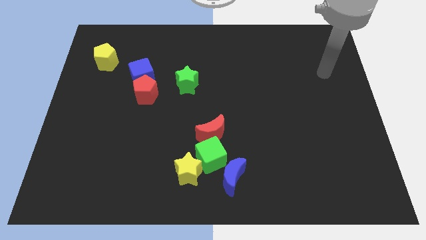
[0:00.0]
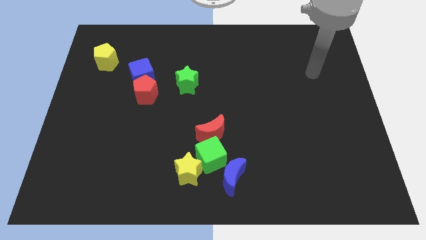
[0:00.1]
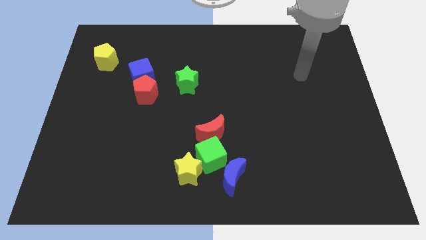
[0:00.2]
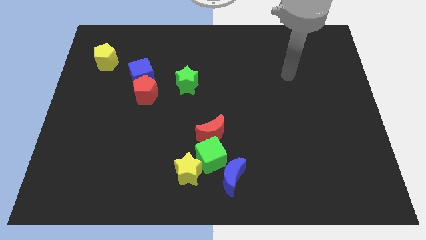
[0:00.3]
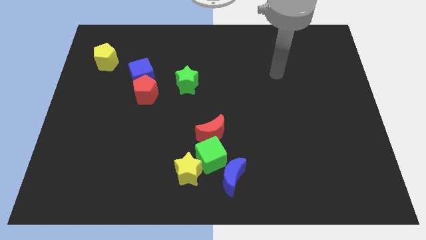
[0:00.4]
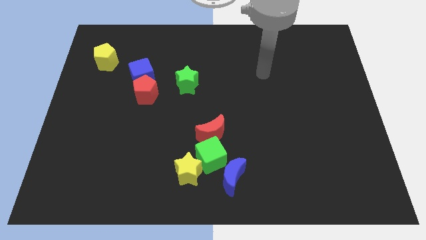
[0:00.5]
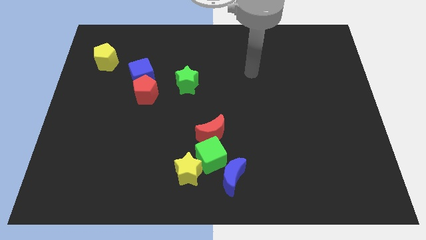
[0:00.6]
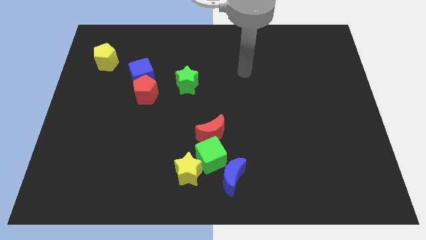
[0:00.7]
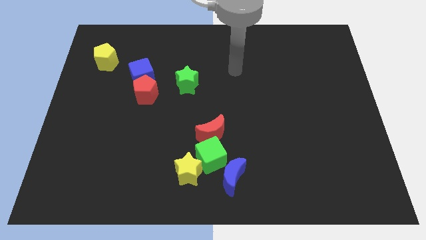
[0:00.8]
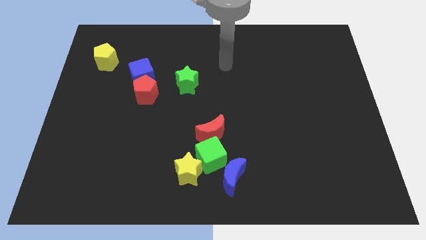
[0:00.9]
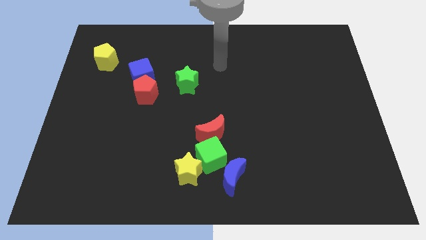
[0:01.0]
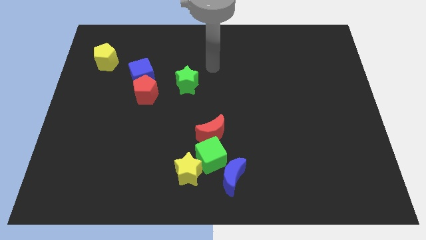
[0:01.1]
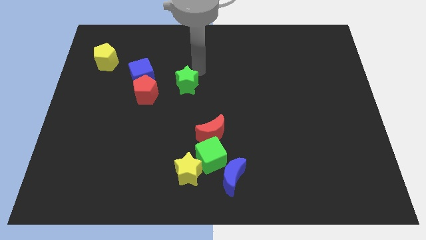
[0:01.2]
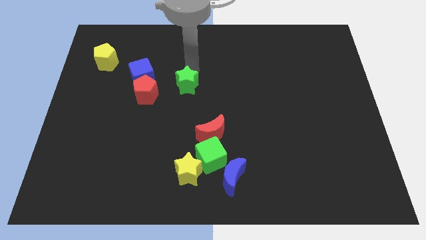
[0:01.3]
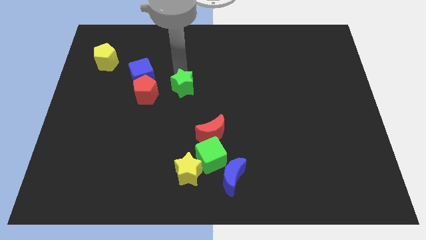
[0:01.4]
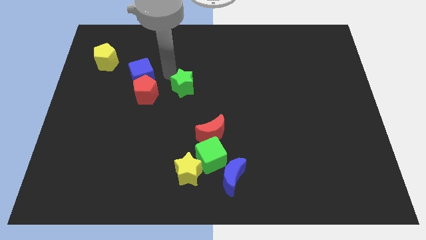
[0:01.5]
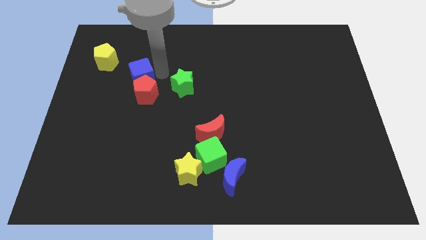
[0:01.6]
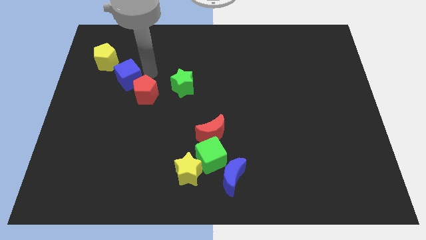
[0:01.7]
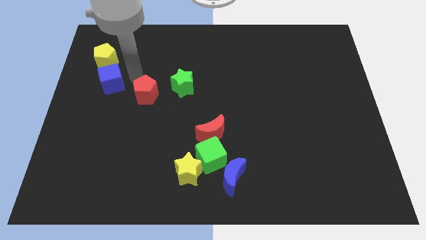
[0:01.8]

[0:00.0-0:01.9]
separate the red pentagon from the blue cube

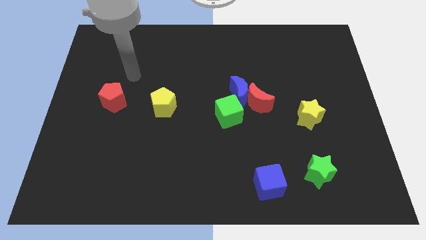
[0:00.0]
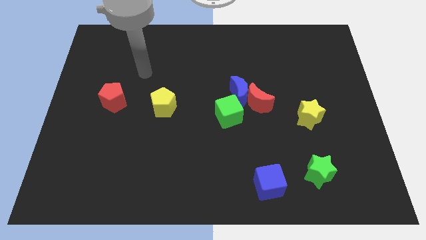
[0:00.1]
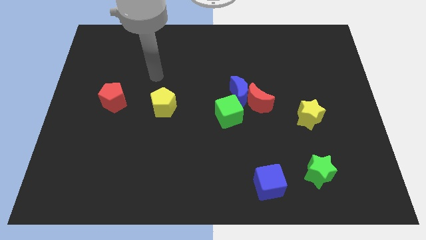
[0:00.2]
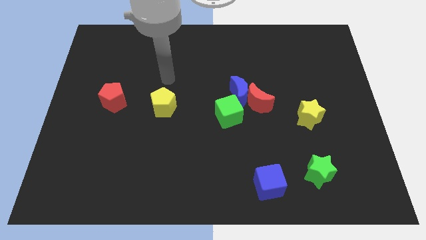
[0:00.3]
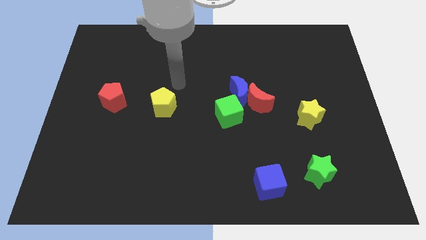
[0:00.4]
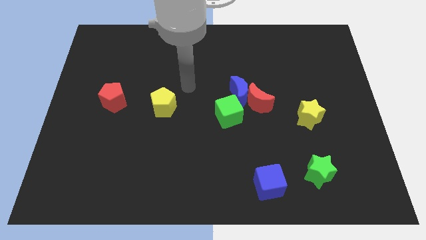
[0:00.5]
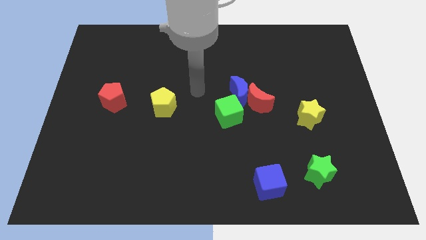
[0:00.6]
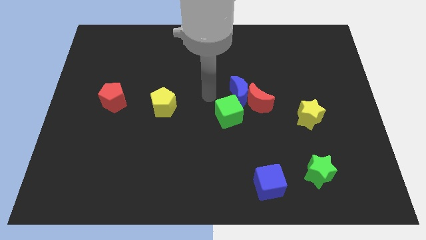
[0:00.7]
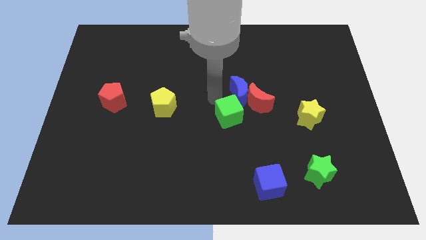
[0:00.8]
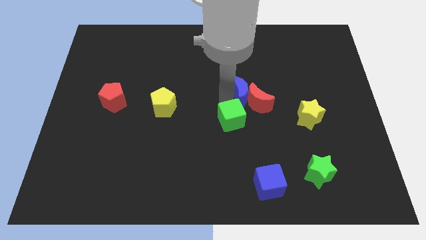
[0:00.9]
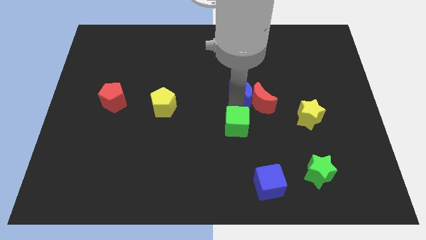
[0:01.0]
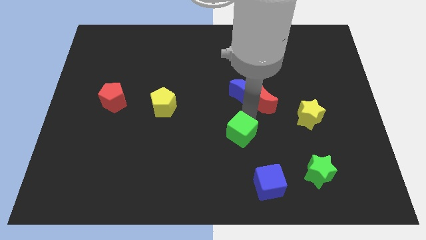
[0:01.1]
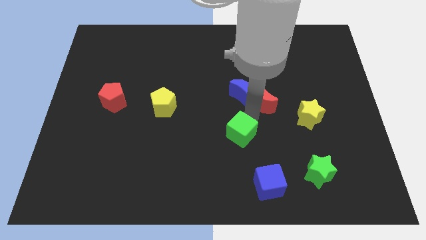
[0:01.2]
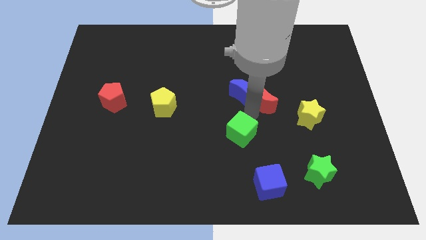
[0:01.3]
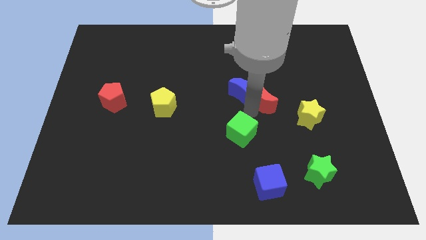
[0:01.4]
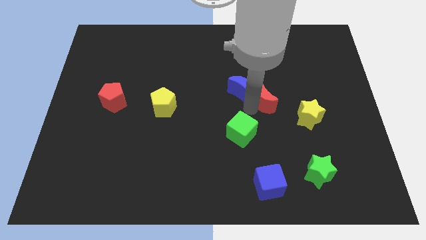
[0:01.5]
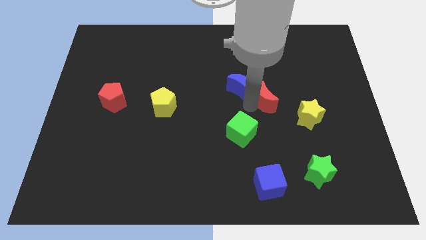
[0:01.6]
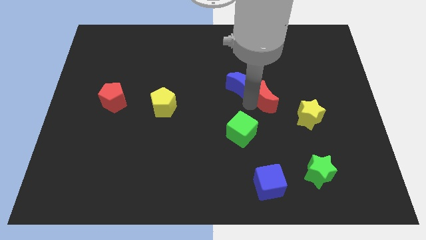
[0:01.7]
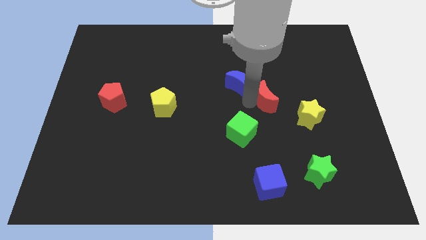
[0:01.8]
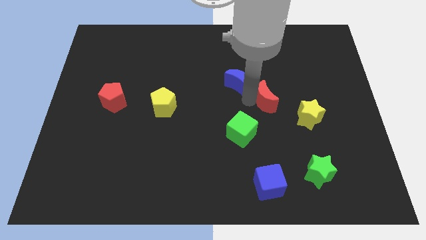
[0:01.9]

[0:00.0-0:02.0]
separate the blue moon from the red moon and green cube

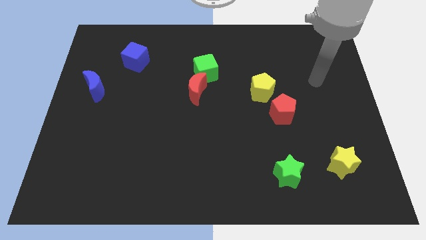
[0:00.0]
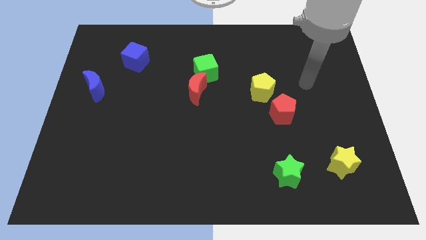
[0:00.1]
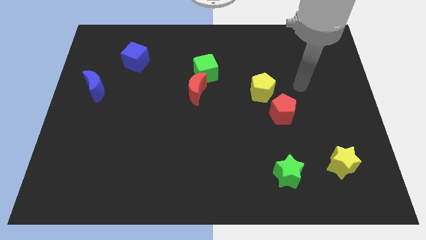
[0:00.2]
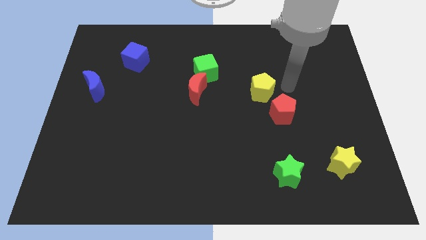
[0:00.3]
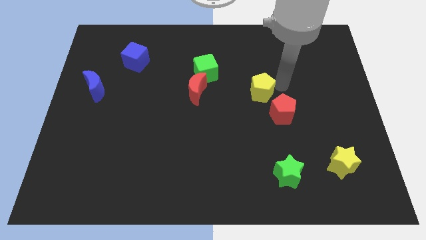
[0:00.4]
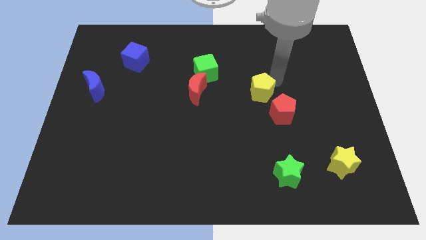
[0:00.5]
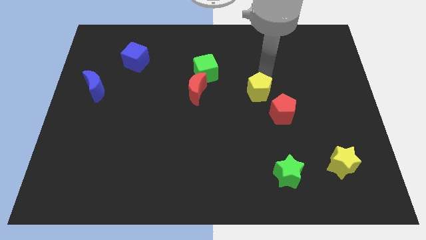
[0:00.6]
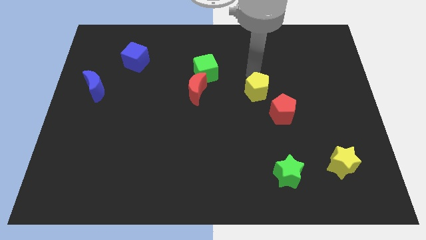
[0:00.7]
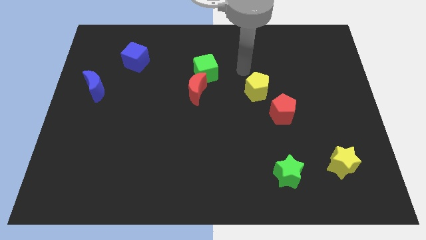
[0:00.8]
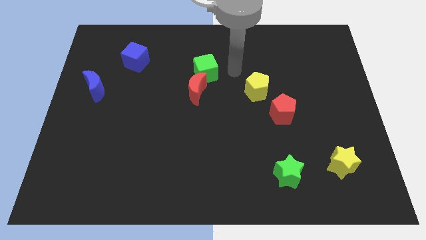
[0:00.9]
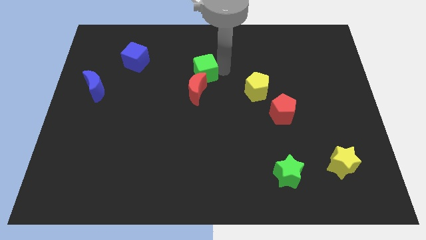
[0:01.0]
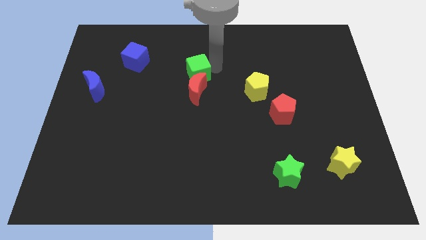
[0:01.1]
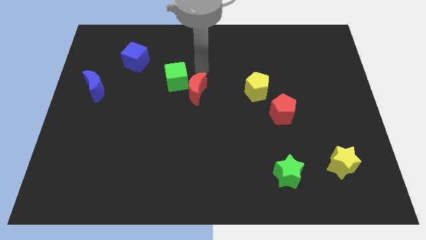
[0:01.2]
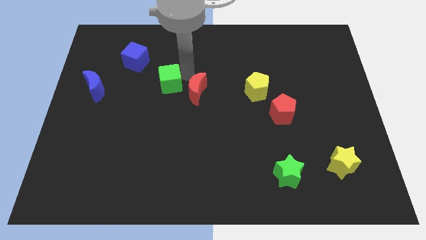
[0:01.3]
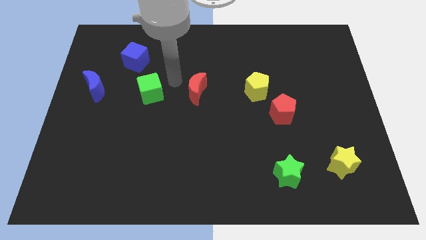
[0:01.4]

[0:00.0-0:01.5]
pull the red moon apart from the green cube

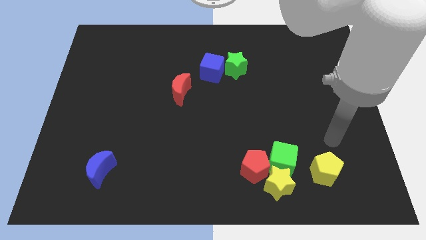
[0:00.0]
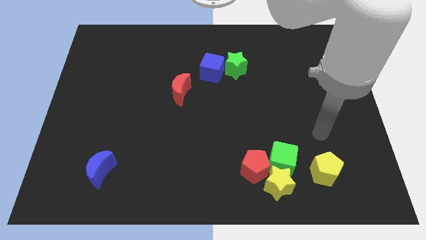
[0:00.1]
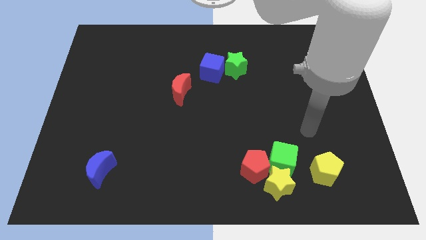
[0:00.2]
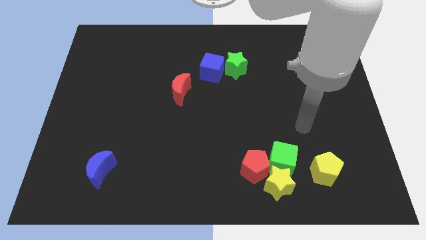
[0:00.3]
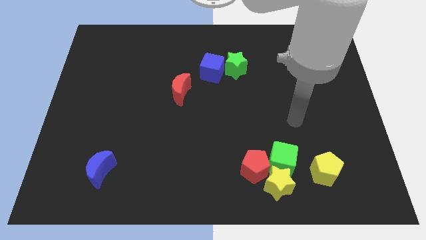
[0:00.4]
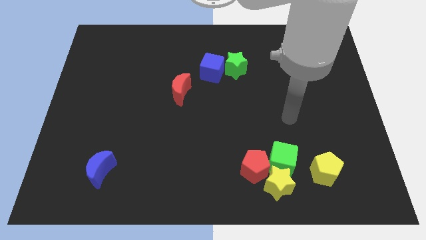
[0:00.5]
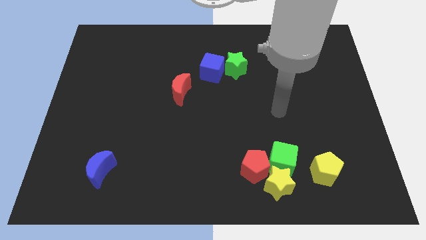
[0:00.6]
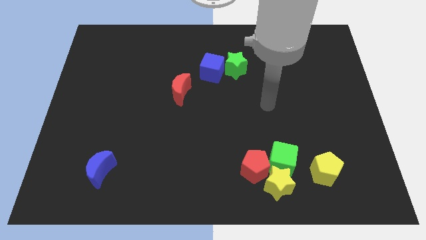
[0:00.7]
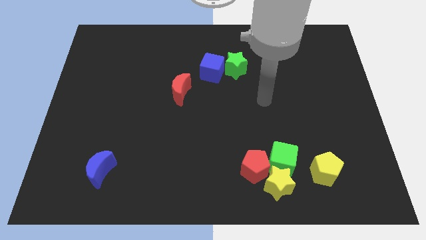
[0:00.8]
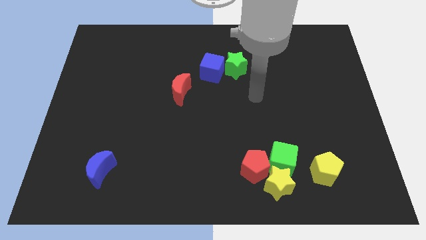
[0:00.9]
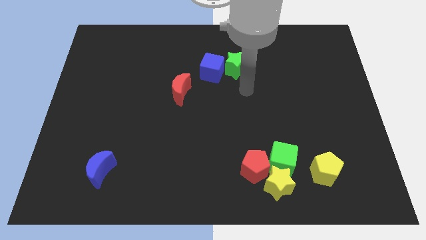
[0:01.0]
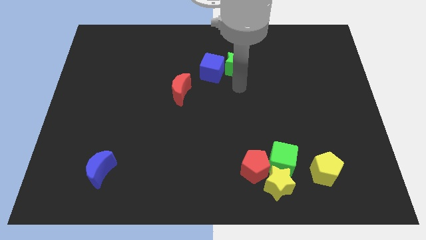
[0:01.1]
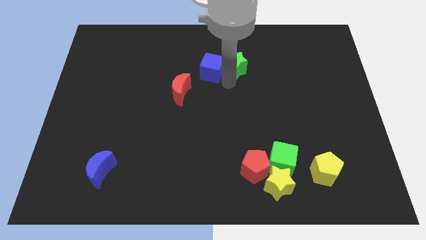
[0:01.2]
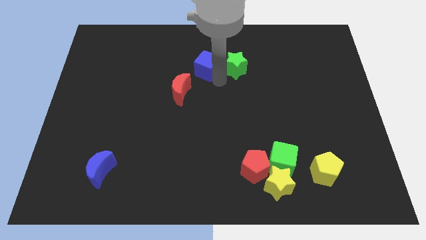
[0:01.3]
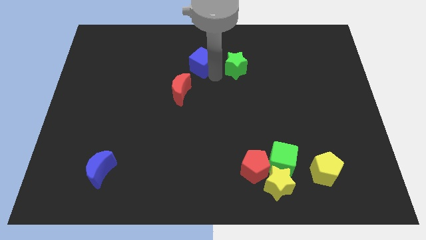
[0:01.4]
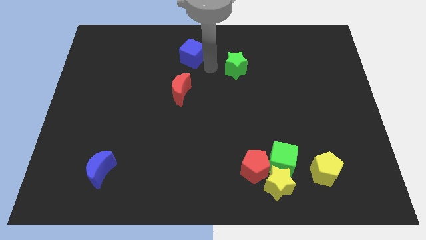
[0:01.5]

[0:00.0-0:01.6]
pull the green star apart from the blue cube

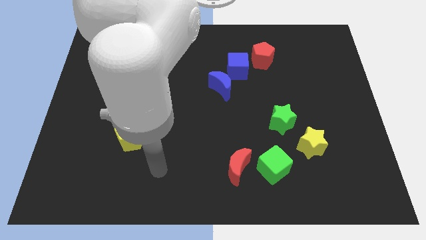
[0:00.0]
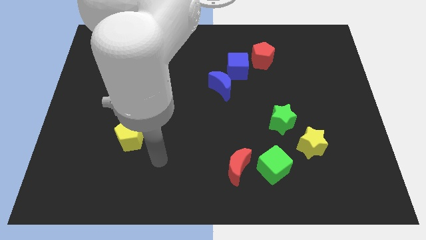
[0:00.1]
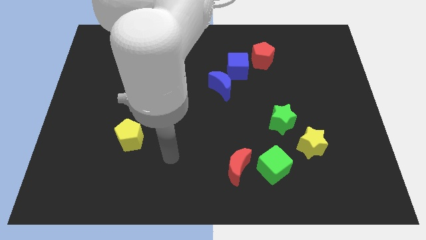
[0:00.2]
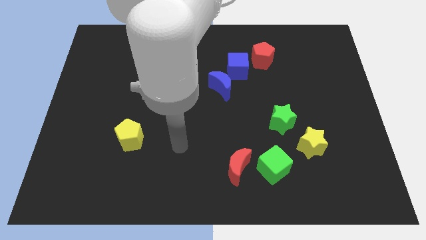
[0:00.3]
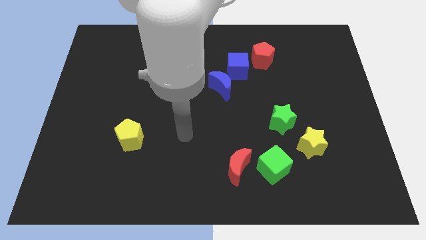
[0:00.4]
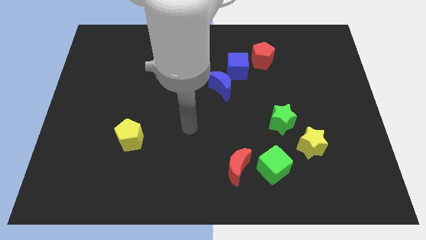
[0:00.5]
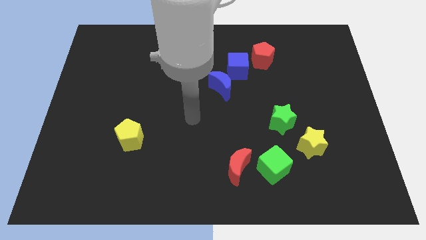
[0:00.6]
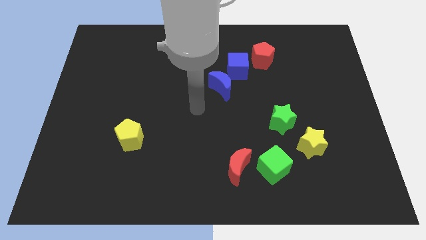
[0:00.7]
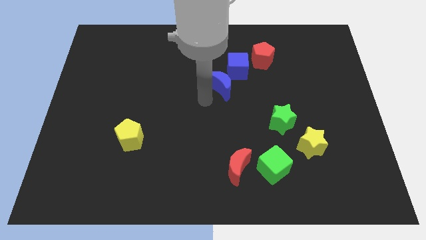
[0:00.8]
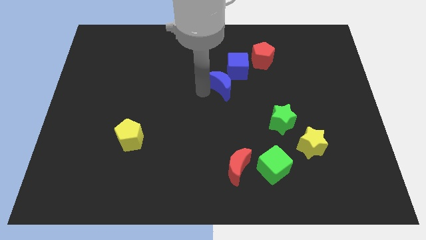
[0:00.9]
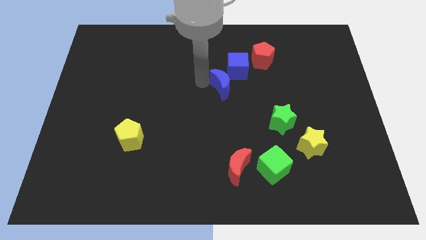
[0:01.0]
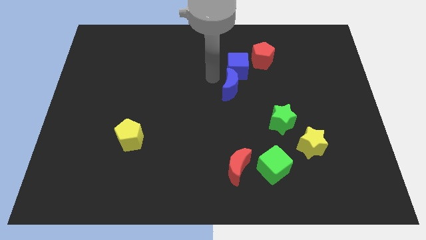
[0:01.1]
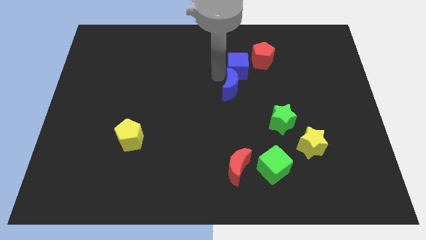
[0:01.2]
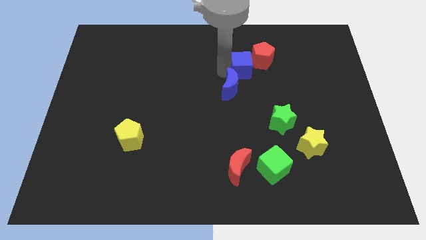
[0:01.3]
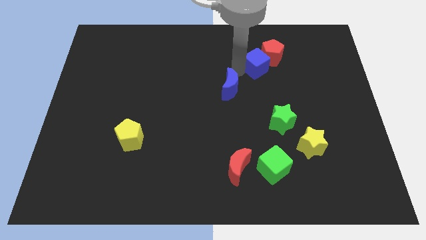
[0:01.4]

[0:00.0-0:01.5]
pull the blue moon apart from the blue cube

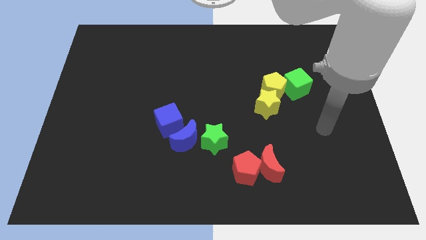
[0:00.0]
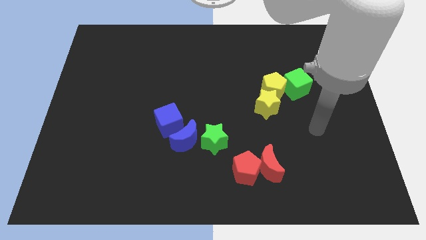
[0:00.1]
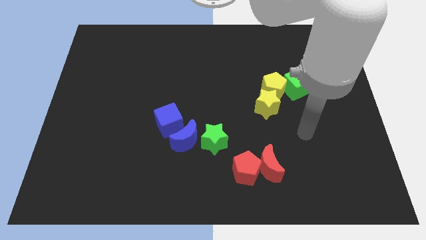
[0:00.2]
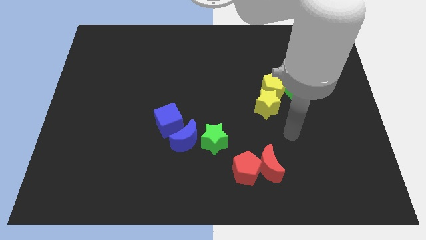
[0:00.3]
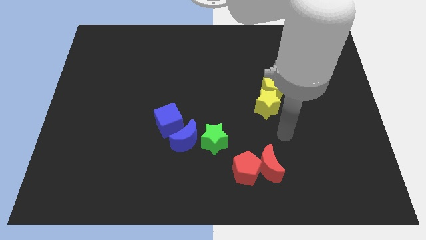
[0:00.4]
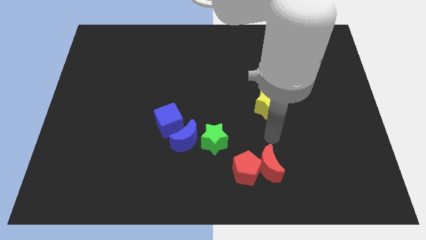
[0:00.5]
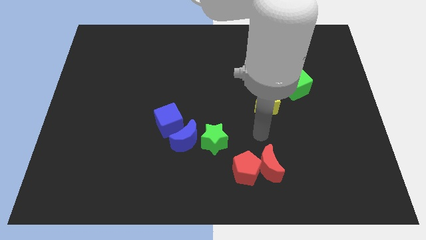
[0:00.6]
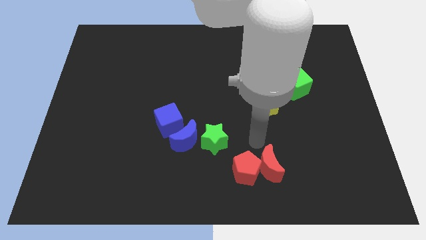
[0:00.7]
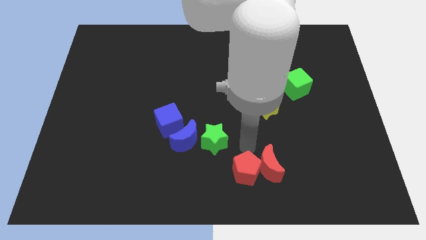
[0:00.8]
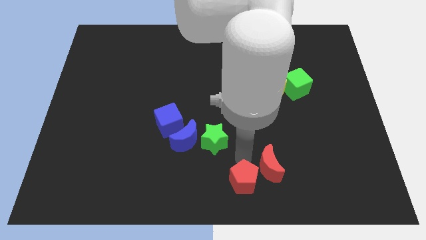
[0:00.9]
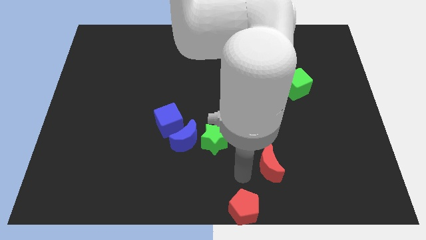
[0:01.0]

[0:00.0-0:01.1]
move the red moon away from the red pentagon
